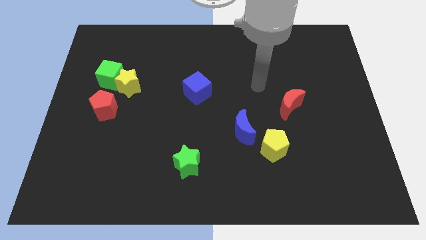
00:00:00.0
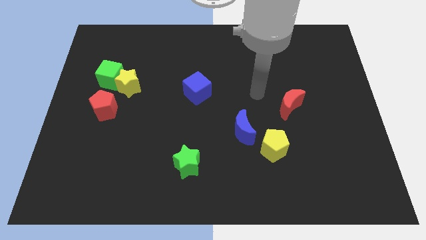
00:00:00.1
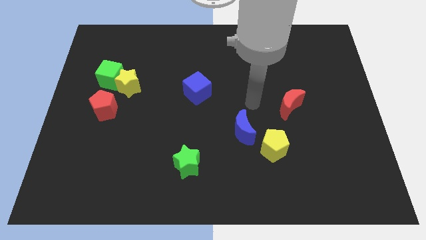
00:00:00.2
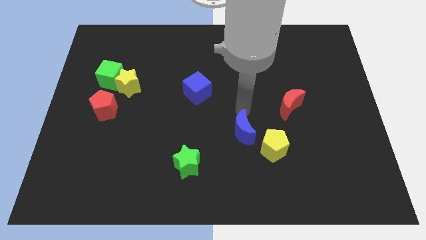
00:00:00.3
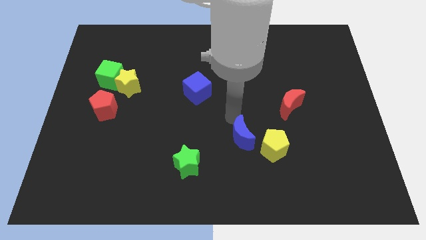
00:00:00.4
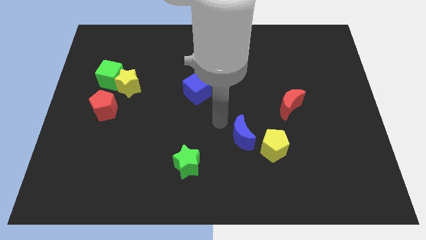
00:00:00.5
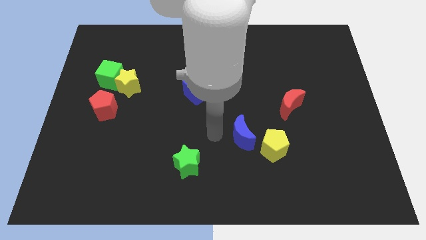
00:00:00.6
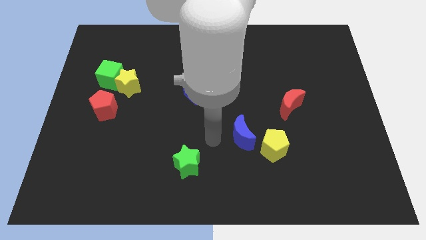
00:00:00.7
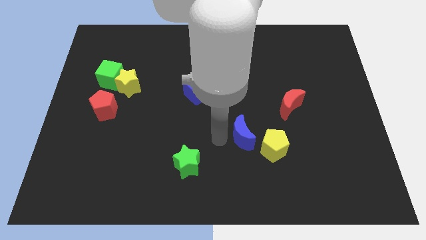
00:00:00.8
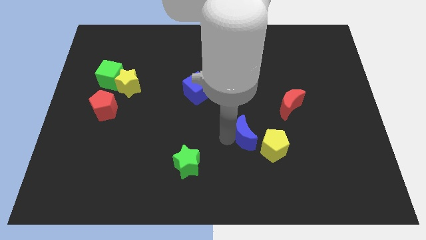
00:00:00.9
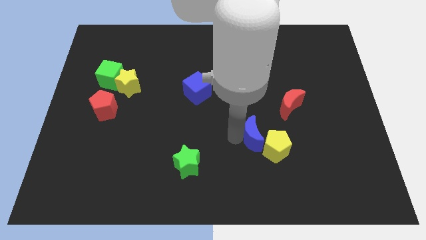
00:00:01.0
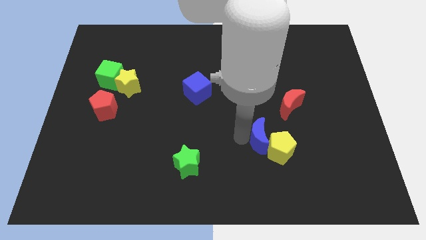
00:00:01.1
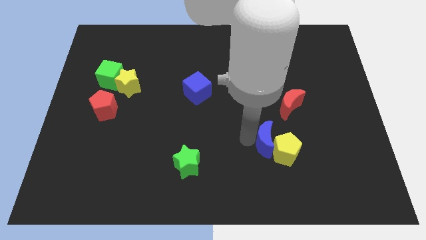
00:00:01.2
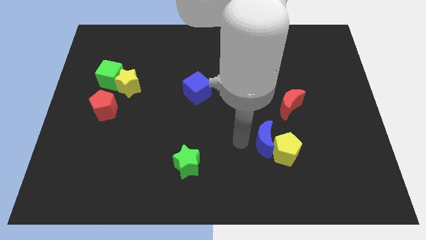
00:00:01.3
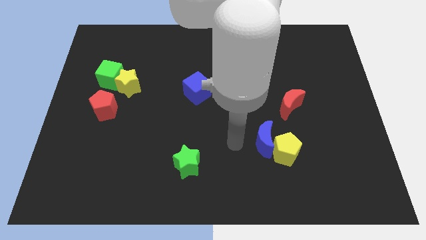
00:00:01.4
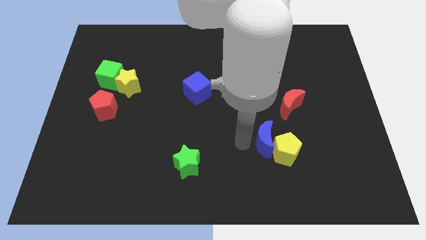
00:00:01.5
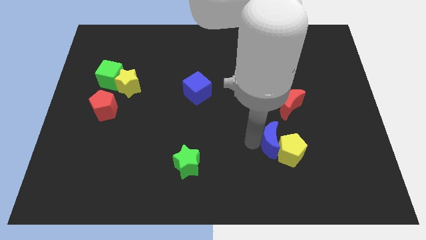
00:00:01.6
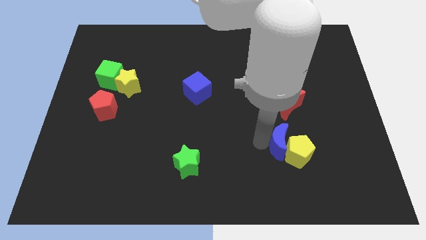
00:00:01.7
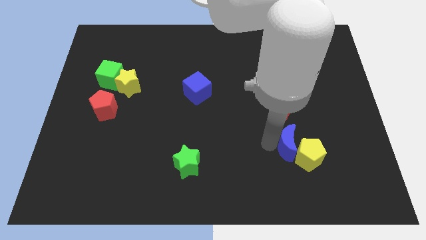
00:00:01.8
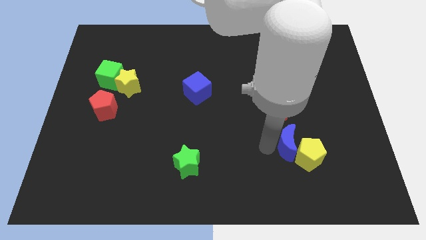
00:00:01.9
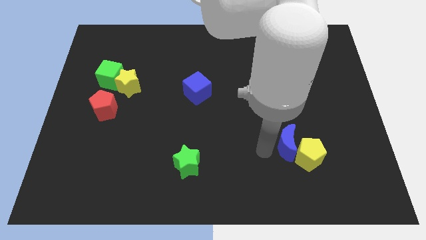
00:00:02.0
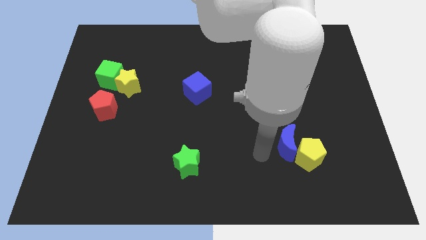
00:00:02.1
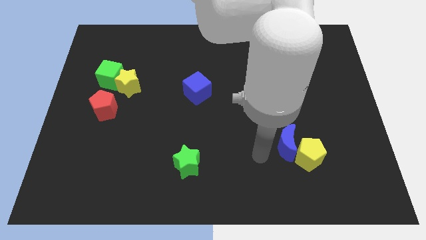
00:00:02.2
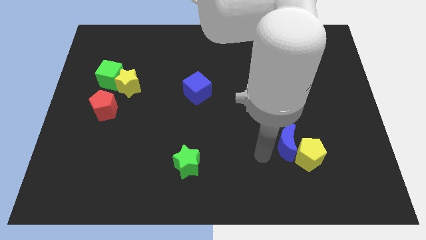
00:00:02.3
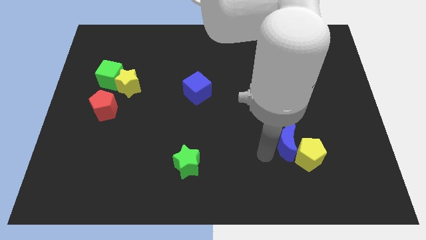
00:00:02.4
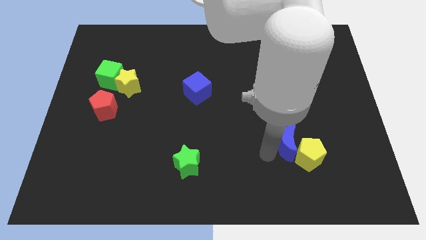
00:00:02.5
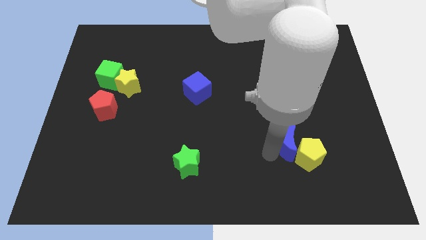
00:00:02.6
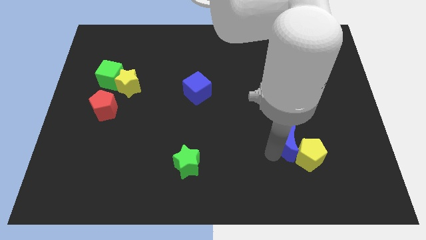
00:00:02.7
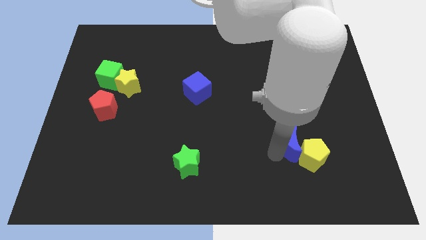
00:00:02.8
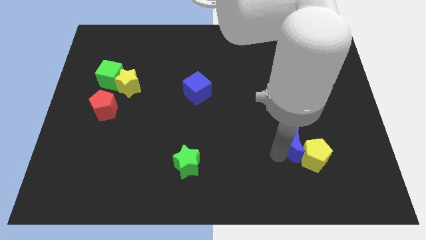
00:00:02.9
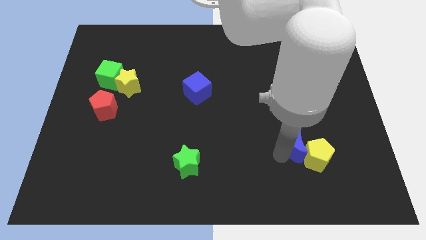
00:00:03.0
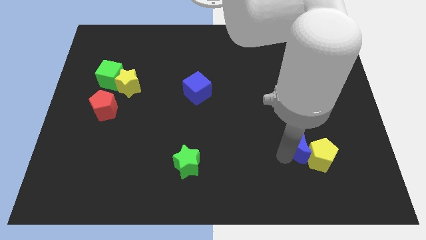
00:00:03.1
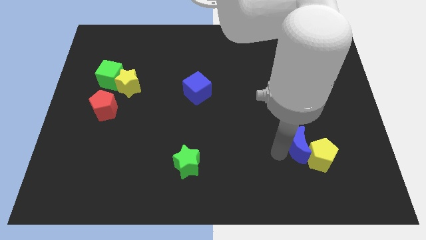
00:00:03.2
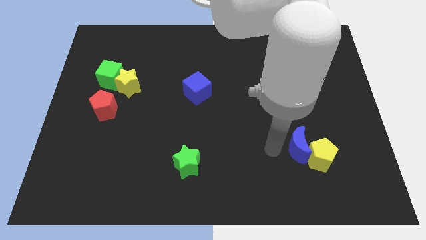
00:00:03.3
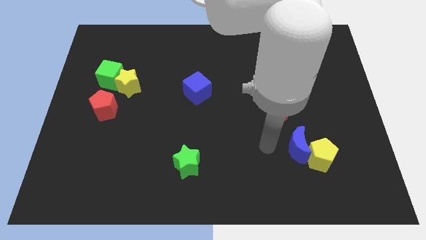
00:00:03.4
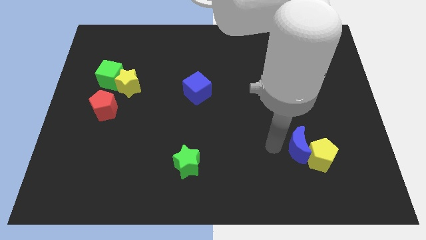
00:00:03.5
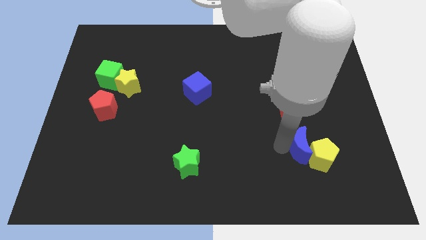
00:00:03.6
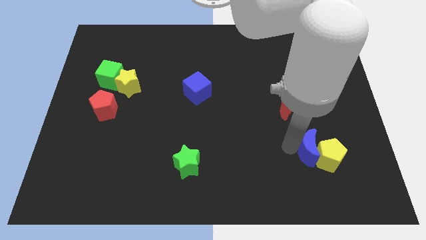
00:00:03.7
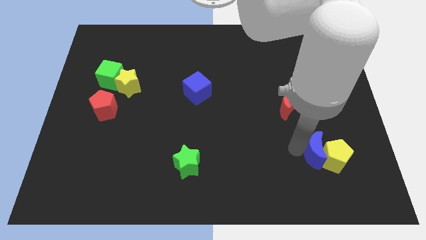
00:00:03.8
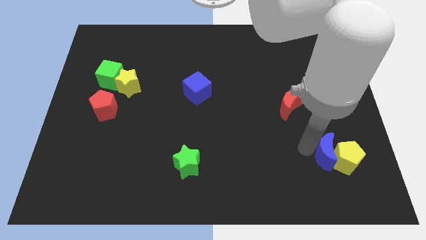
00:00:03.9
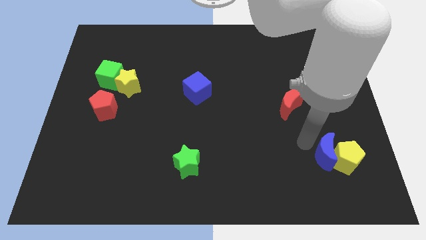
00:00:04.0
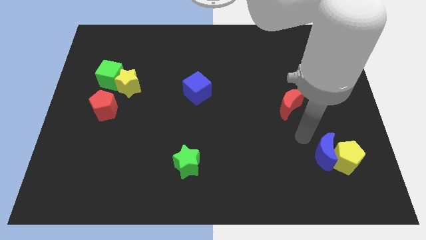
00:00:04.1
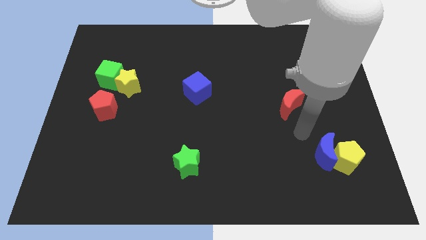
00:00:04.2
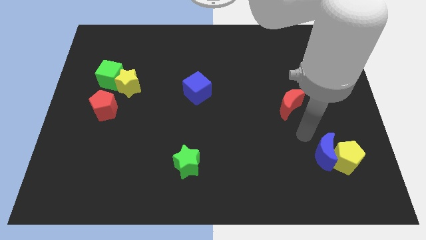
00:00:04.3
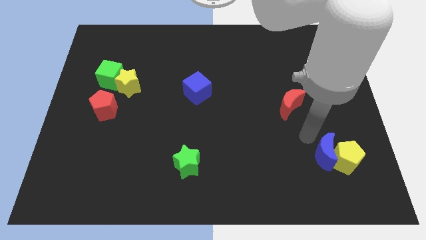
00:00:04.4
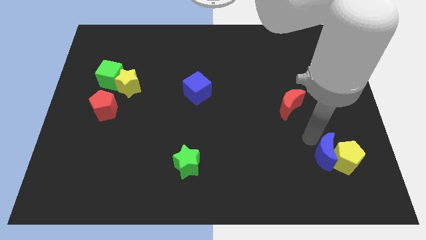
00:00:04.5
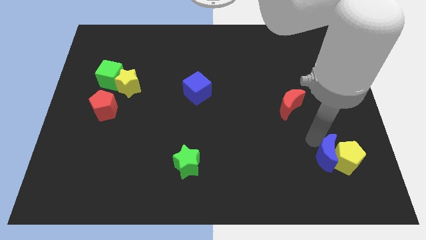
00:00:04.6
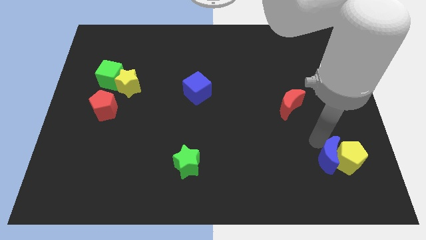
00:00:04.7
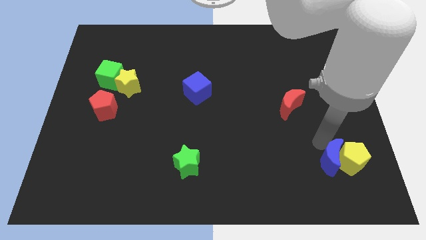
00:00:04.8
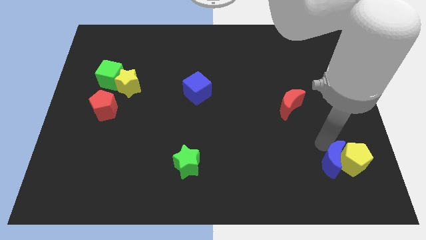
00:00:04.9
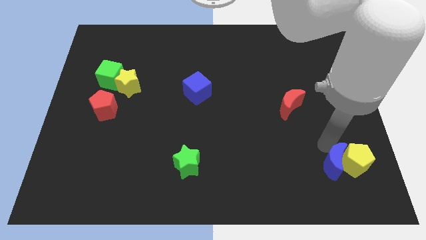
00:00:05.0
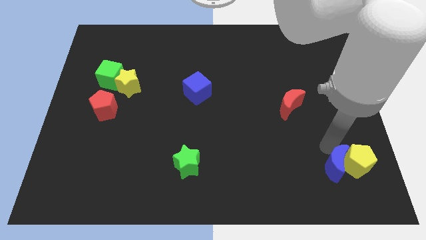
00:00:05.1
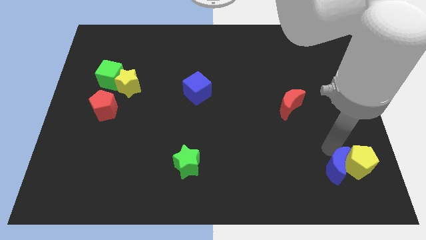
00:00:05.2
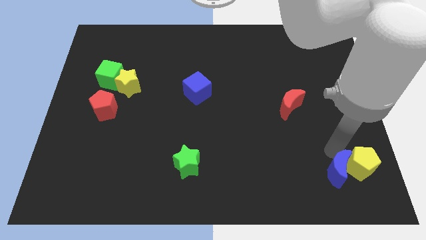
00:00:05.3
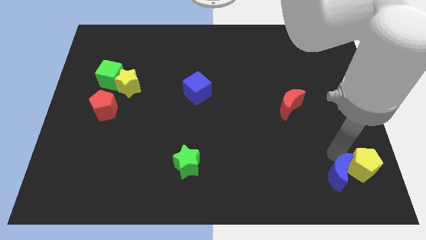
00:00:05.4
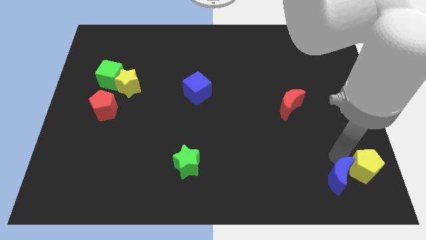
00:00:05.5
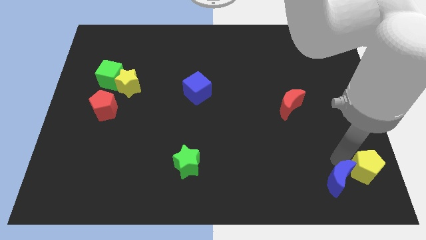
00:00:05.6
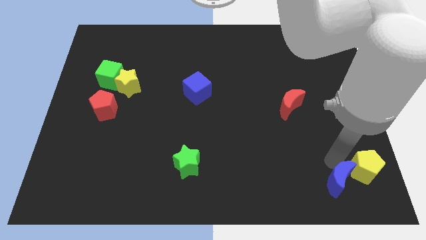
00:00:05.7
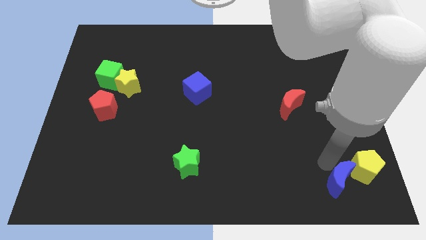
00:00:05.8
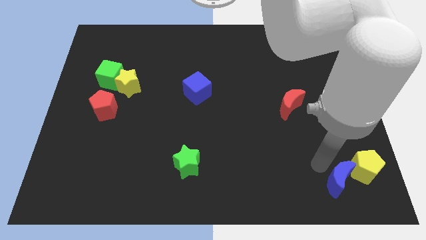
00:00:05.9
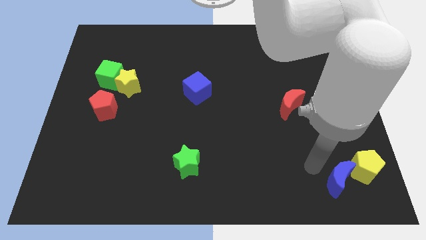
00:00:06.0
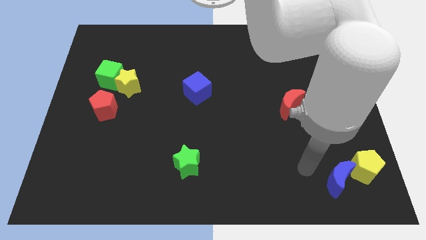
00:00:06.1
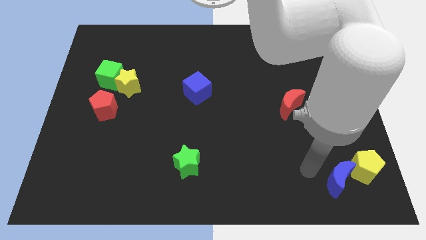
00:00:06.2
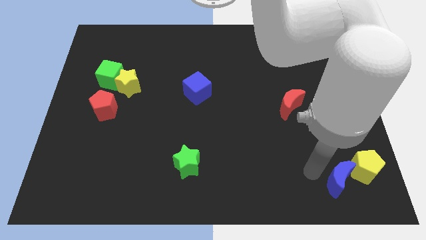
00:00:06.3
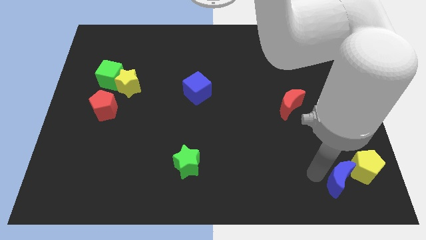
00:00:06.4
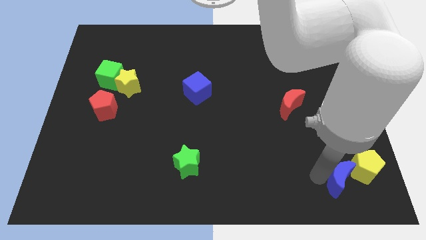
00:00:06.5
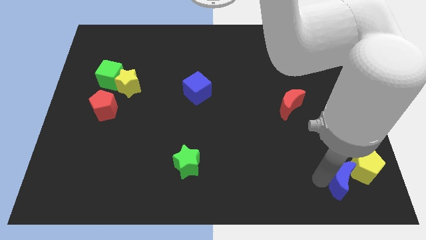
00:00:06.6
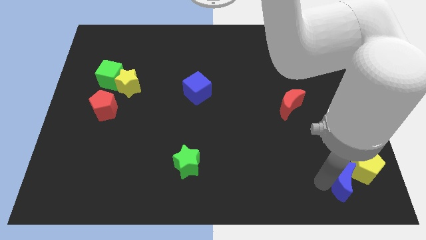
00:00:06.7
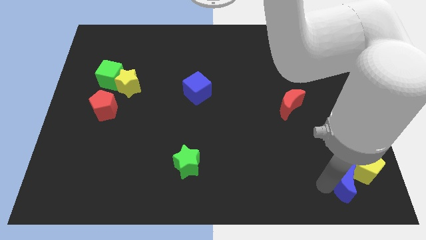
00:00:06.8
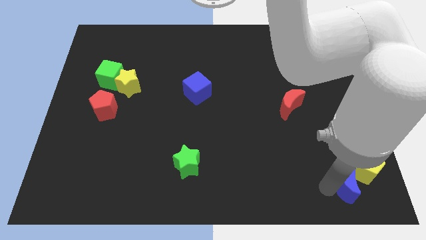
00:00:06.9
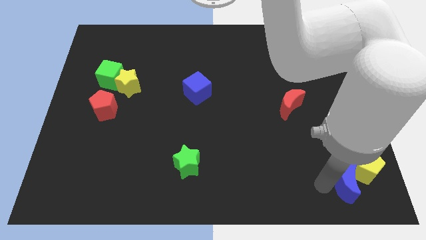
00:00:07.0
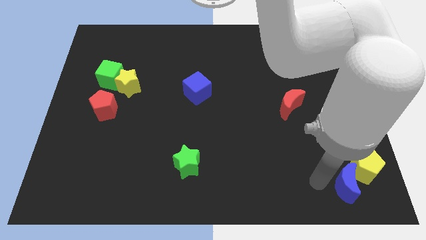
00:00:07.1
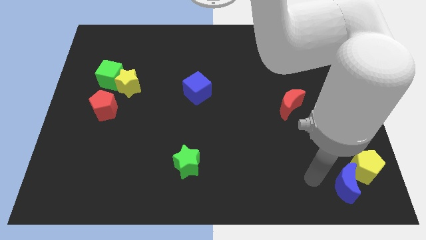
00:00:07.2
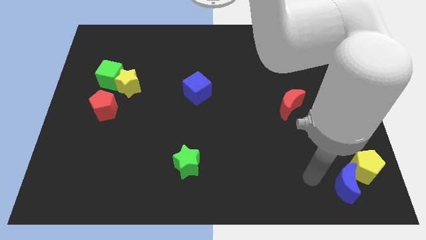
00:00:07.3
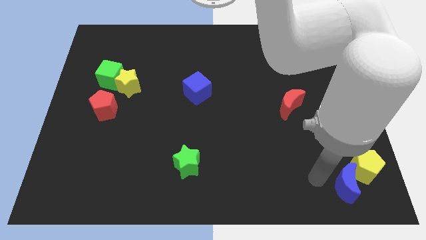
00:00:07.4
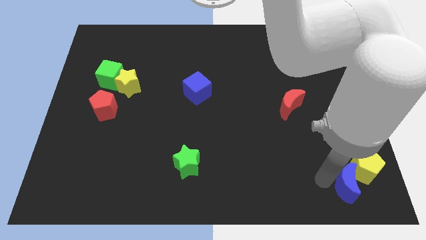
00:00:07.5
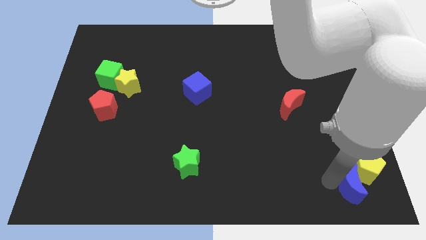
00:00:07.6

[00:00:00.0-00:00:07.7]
slide the blue moon to the bottom right corner
